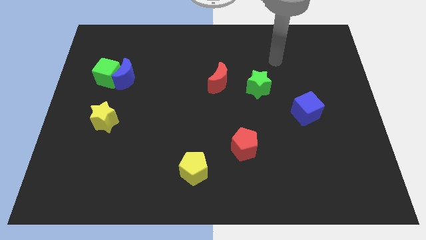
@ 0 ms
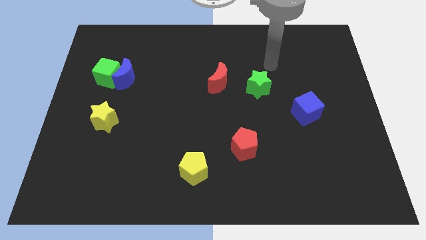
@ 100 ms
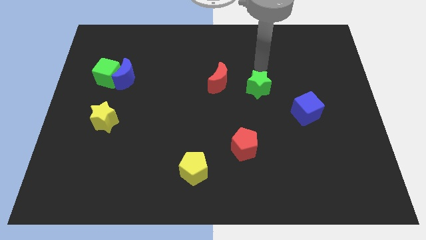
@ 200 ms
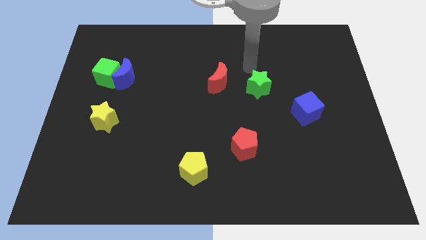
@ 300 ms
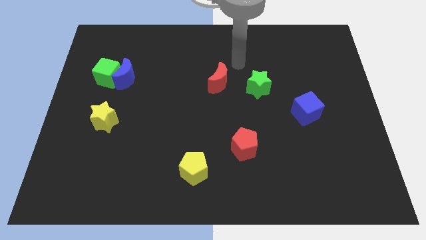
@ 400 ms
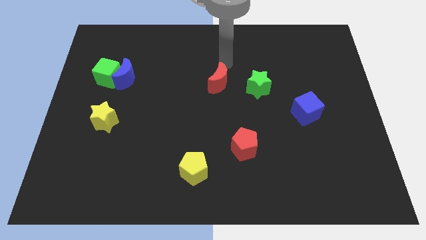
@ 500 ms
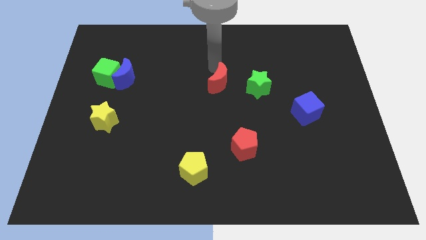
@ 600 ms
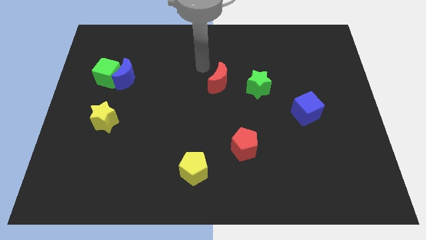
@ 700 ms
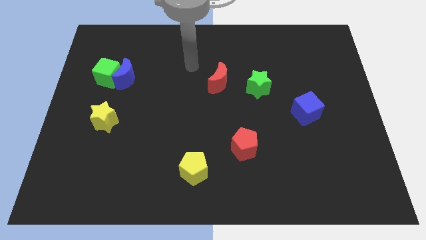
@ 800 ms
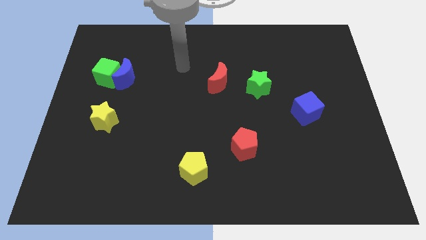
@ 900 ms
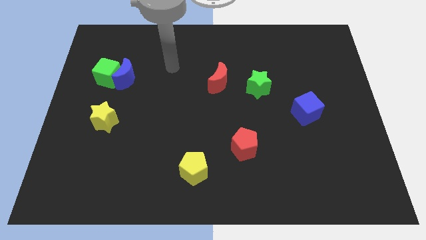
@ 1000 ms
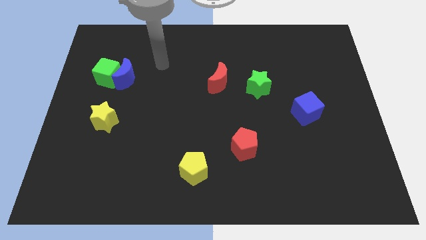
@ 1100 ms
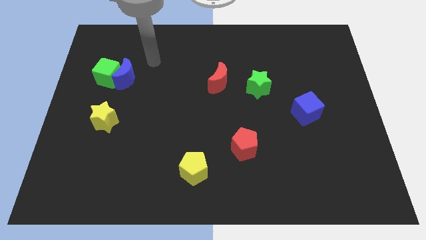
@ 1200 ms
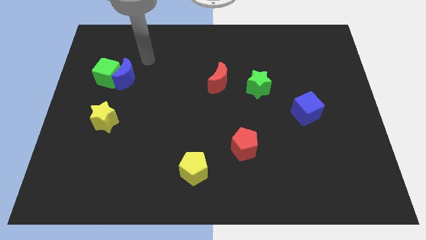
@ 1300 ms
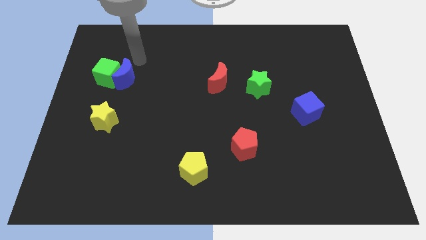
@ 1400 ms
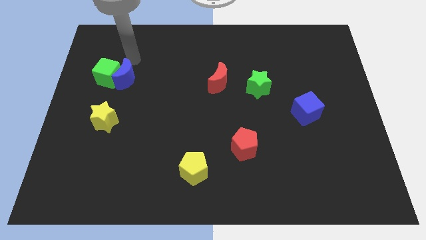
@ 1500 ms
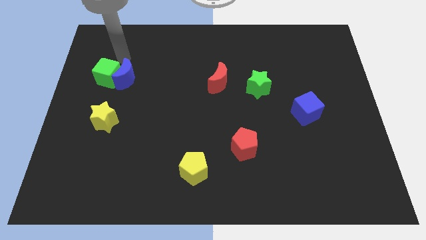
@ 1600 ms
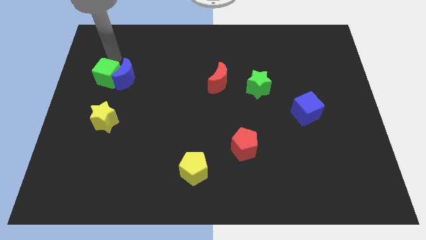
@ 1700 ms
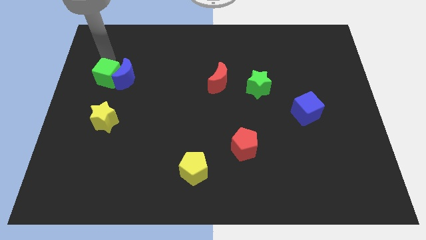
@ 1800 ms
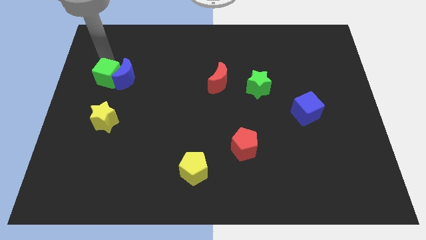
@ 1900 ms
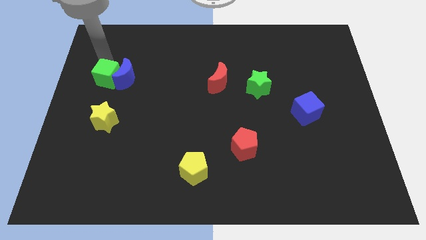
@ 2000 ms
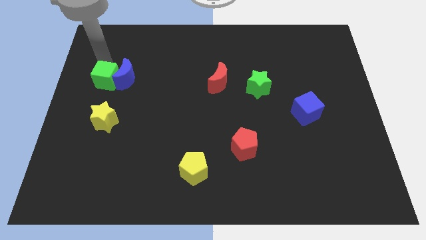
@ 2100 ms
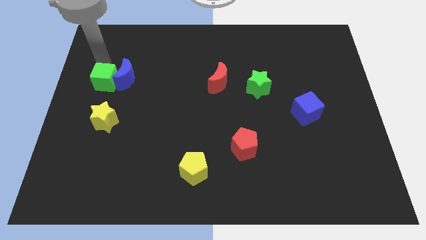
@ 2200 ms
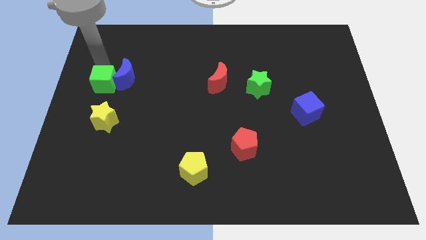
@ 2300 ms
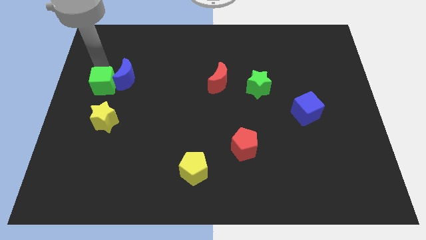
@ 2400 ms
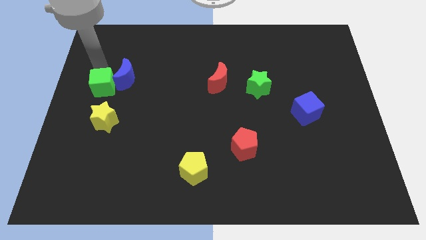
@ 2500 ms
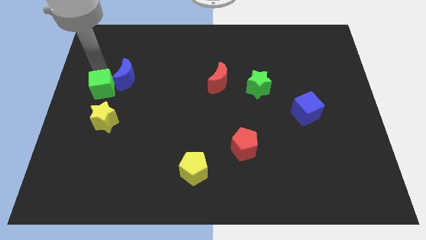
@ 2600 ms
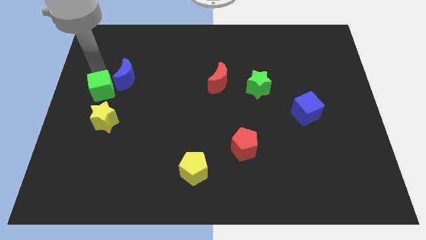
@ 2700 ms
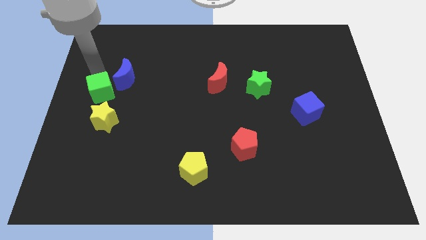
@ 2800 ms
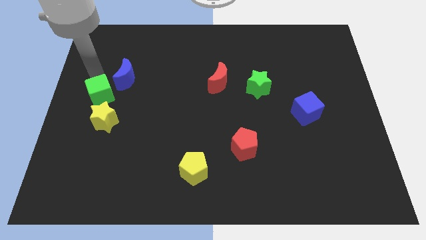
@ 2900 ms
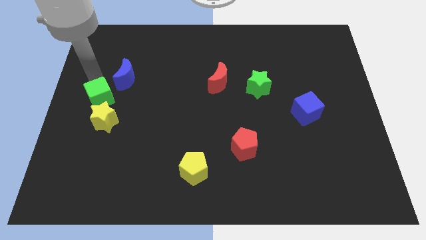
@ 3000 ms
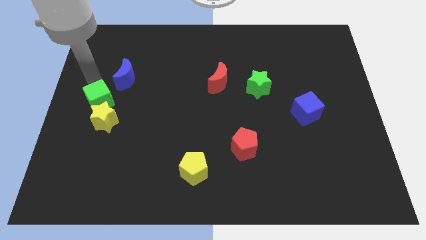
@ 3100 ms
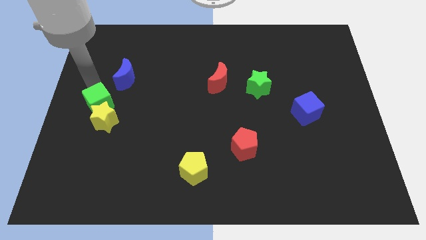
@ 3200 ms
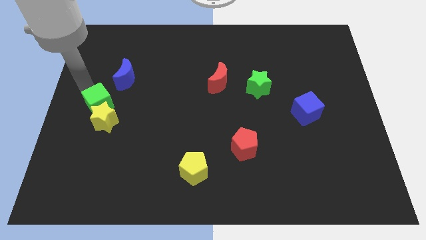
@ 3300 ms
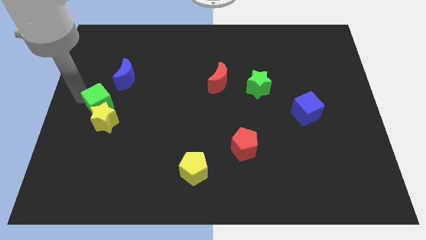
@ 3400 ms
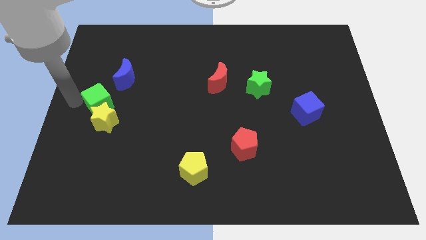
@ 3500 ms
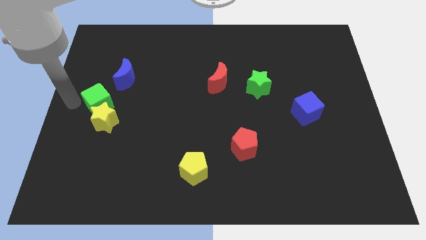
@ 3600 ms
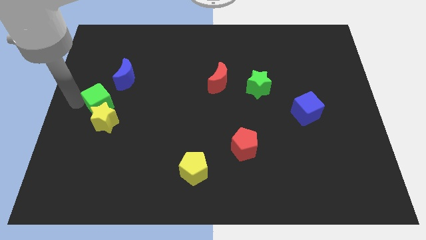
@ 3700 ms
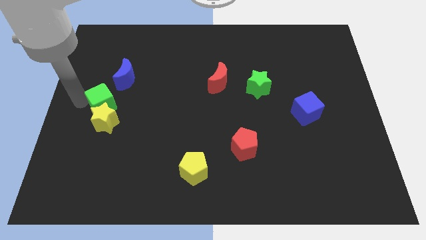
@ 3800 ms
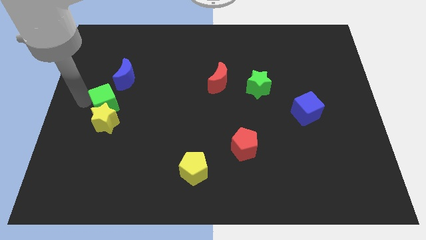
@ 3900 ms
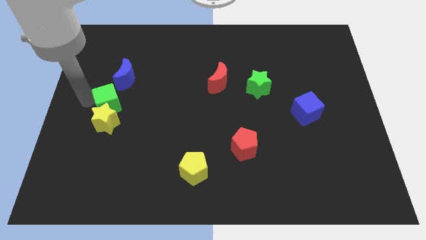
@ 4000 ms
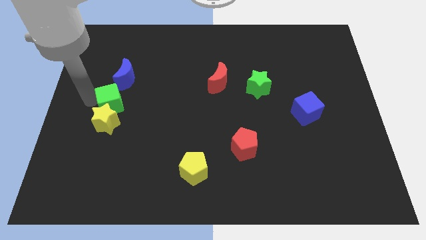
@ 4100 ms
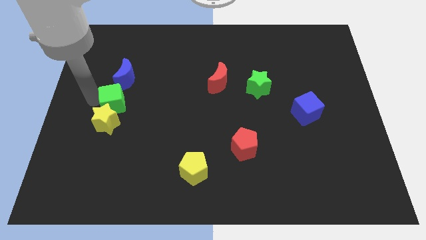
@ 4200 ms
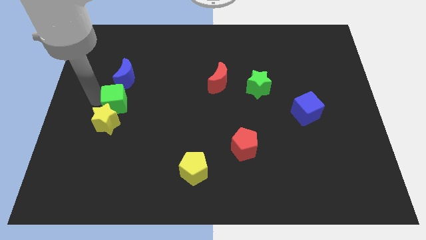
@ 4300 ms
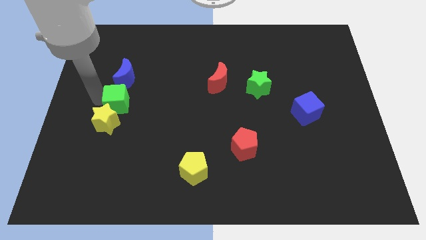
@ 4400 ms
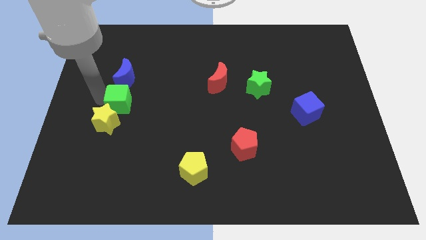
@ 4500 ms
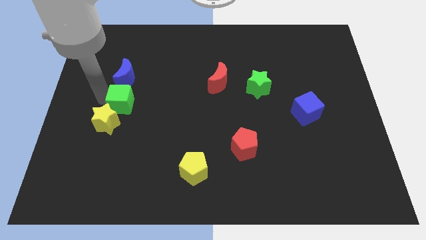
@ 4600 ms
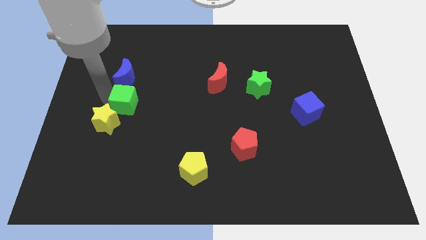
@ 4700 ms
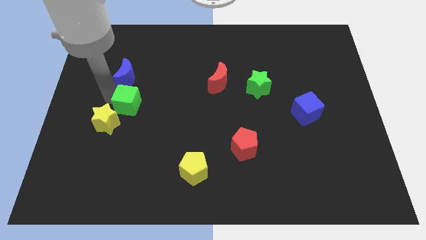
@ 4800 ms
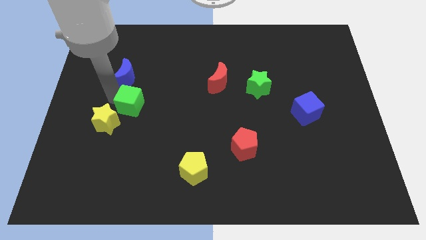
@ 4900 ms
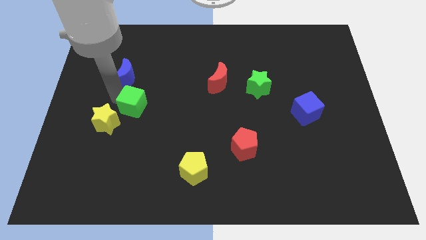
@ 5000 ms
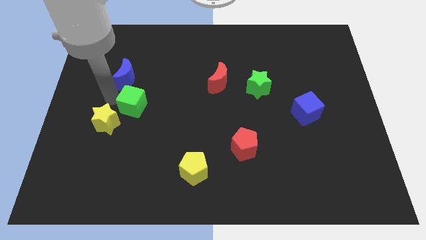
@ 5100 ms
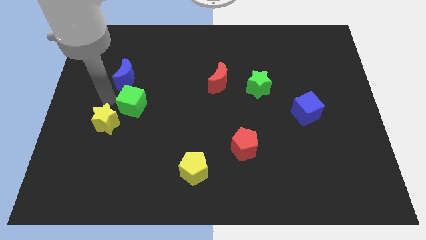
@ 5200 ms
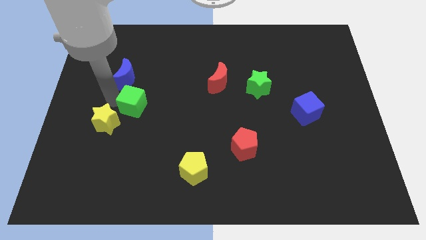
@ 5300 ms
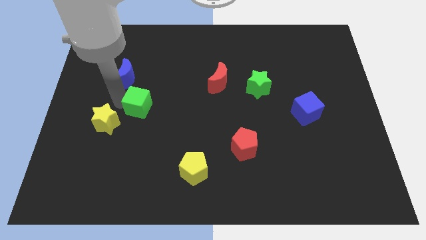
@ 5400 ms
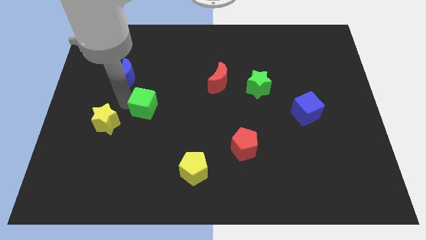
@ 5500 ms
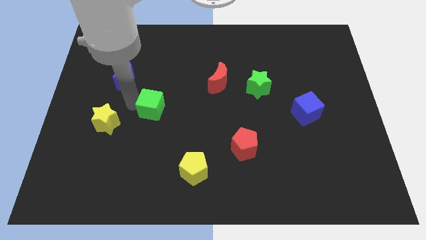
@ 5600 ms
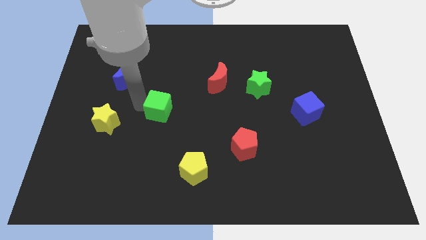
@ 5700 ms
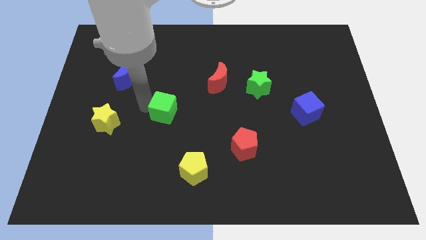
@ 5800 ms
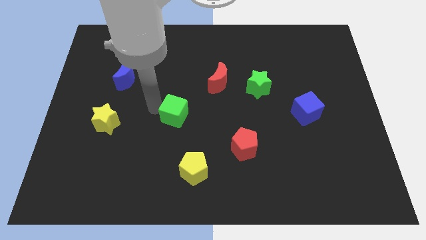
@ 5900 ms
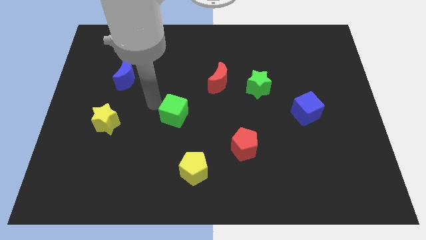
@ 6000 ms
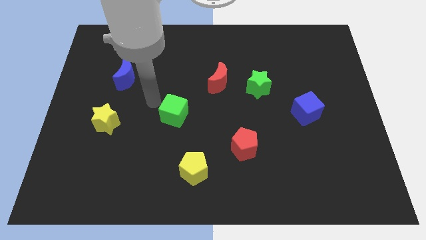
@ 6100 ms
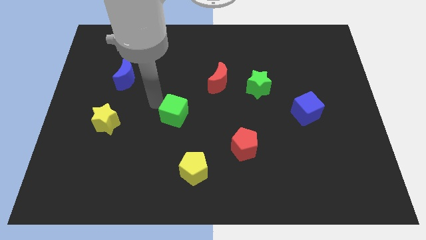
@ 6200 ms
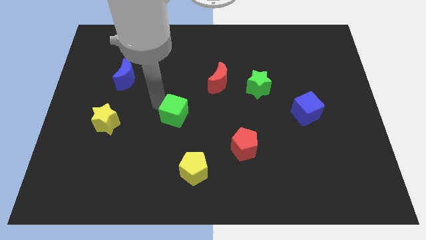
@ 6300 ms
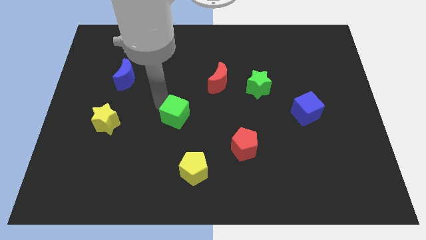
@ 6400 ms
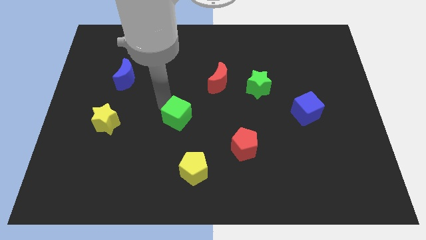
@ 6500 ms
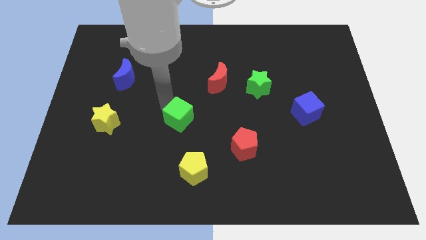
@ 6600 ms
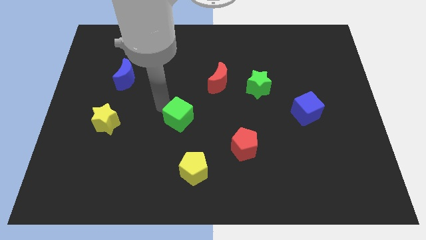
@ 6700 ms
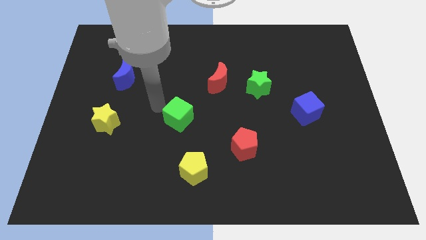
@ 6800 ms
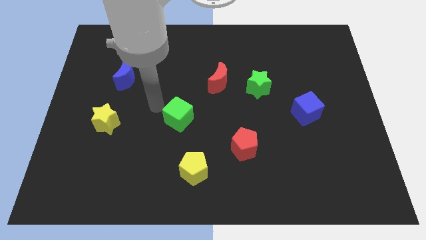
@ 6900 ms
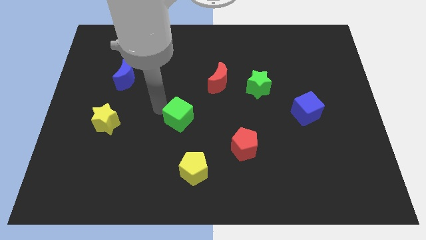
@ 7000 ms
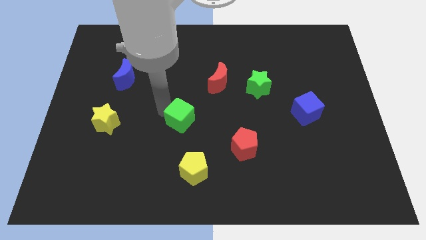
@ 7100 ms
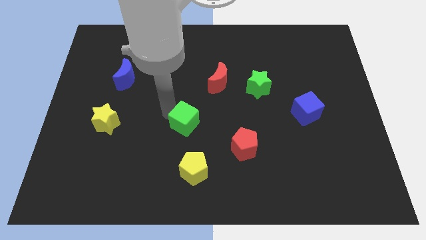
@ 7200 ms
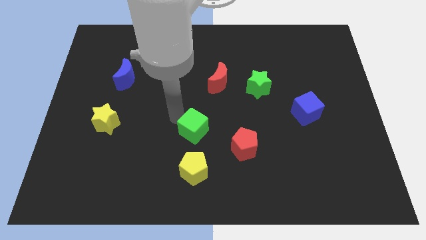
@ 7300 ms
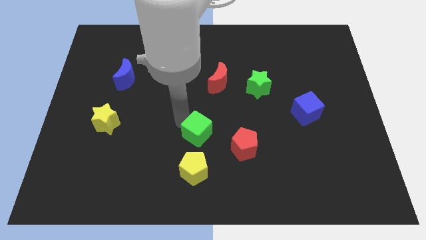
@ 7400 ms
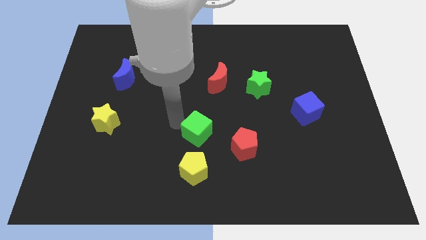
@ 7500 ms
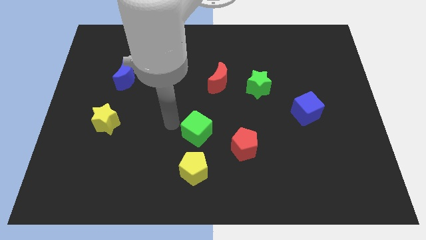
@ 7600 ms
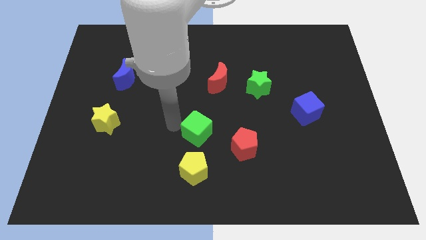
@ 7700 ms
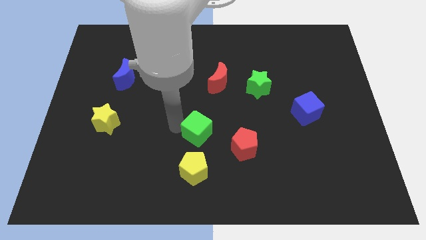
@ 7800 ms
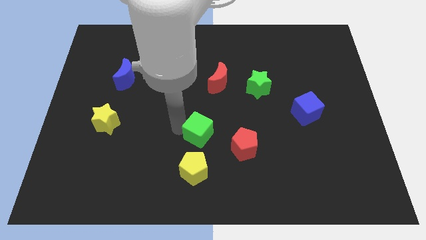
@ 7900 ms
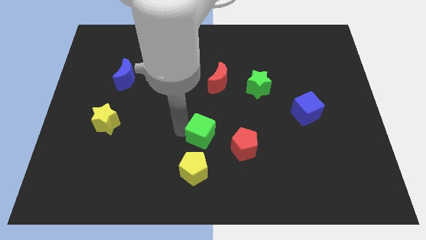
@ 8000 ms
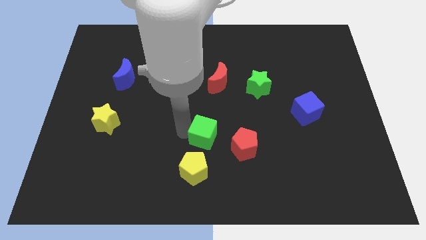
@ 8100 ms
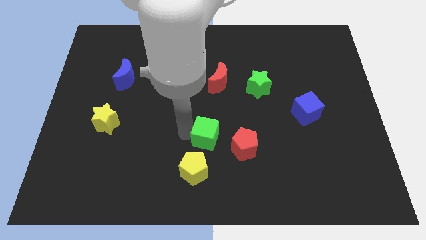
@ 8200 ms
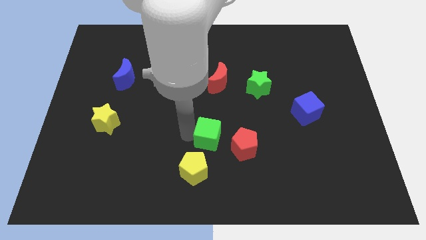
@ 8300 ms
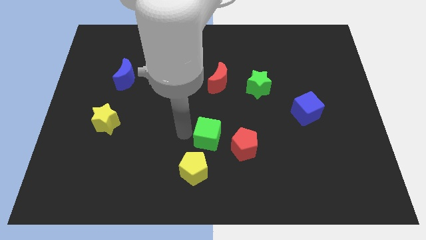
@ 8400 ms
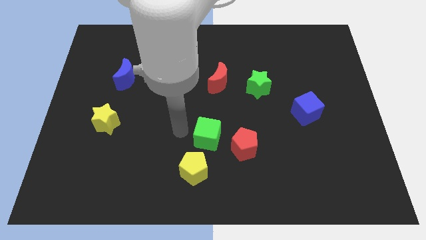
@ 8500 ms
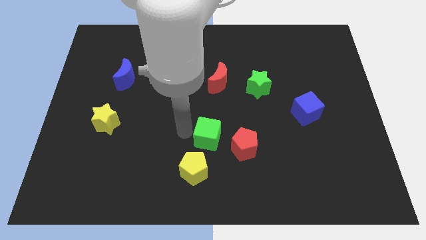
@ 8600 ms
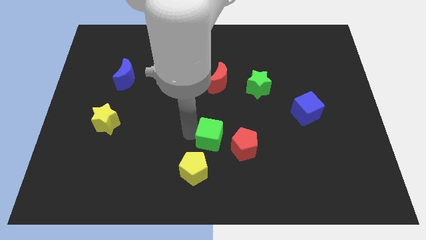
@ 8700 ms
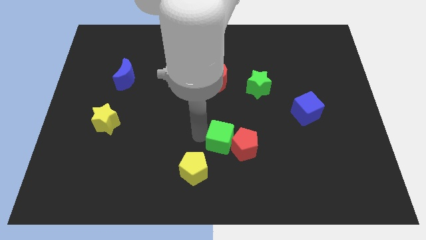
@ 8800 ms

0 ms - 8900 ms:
slide the green cube to the red pentagon
